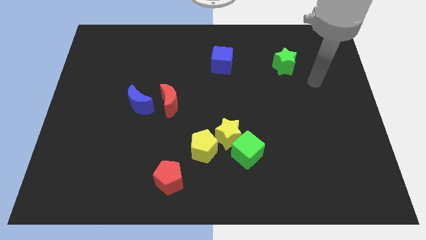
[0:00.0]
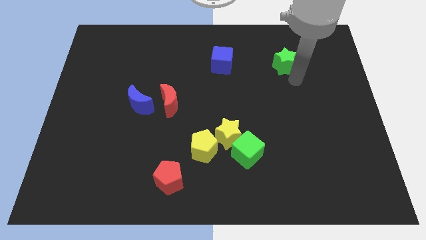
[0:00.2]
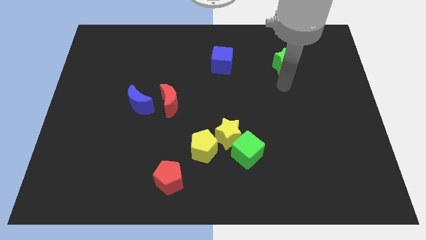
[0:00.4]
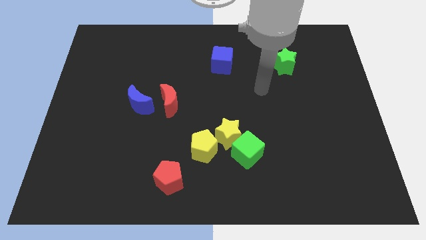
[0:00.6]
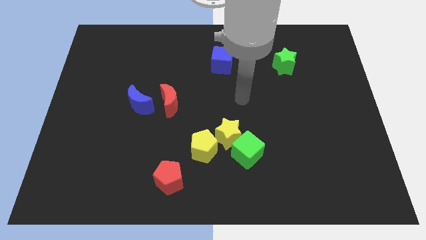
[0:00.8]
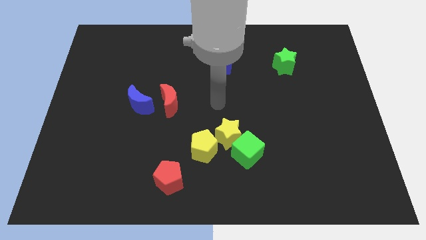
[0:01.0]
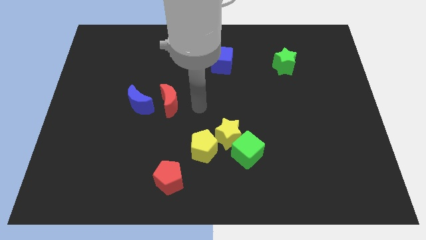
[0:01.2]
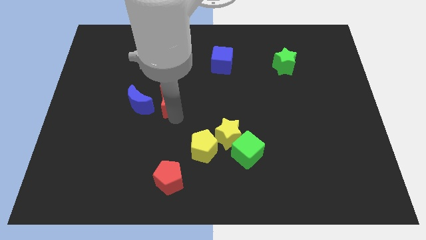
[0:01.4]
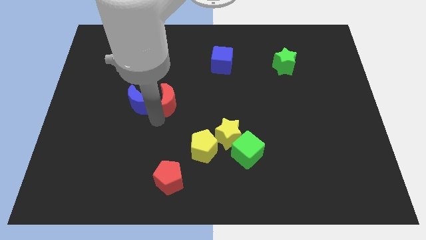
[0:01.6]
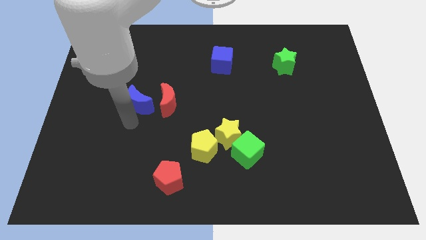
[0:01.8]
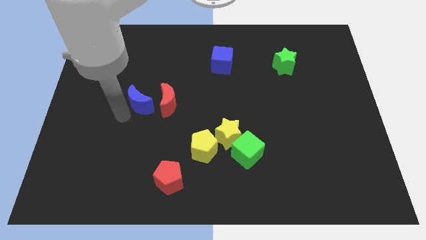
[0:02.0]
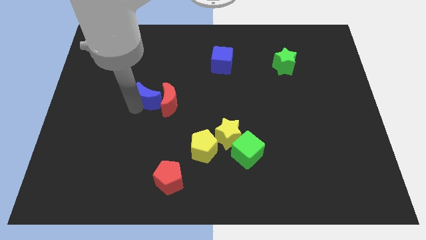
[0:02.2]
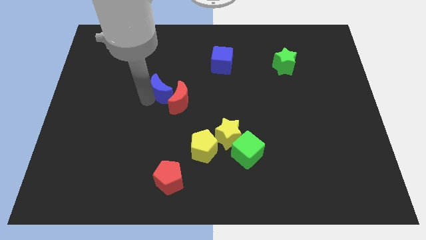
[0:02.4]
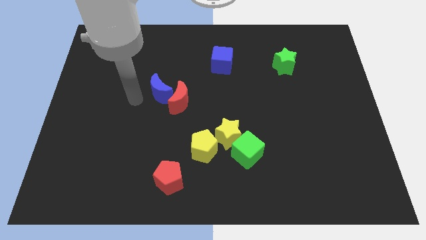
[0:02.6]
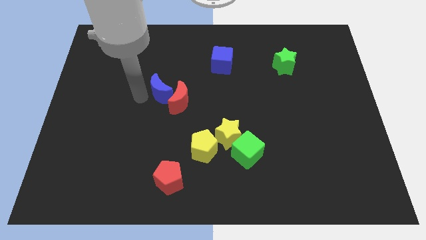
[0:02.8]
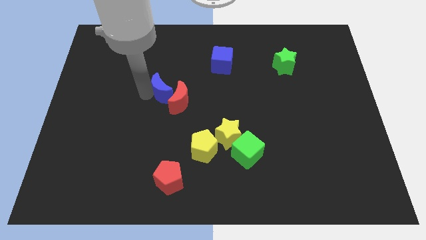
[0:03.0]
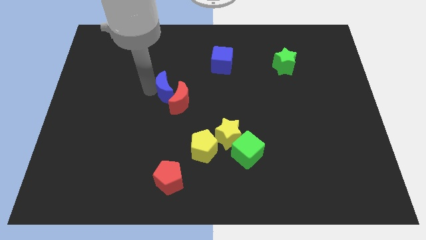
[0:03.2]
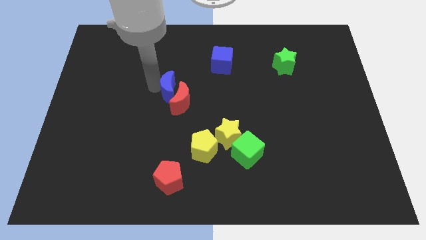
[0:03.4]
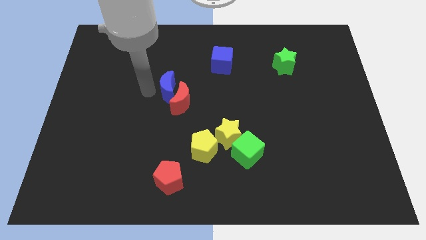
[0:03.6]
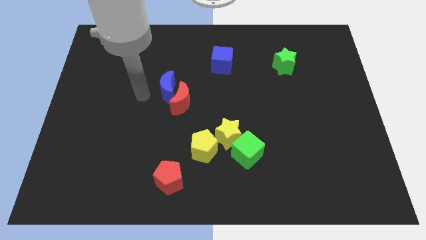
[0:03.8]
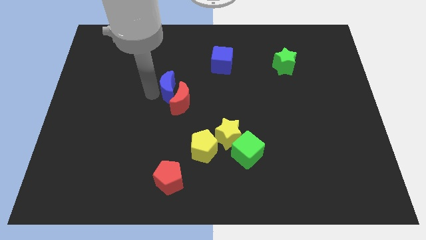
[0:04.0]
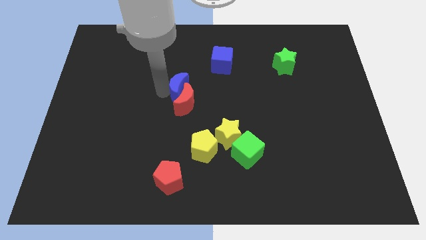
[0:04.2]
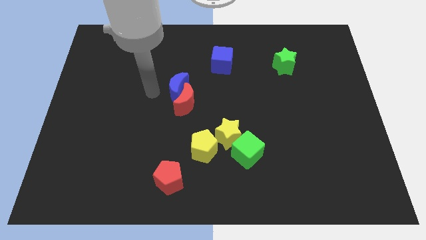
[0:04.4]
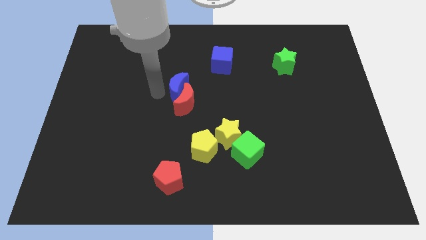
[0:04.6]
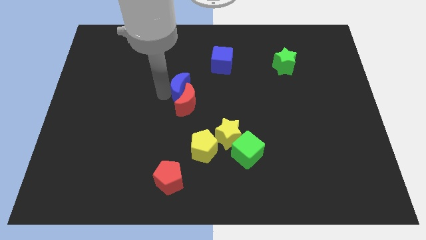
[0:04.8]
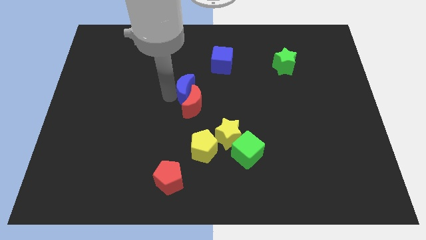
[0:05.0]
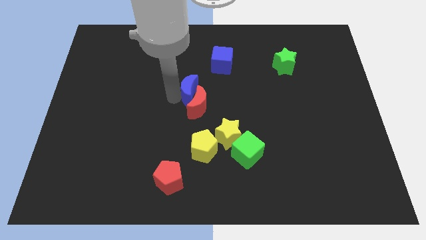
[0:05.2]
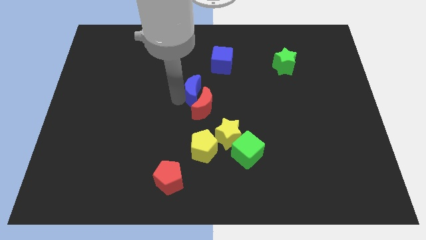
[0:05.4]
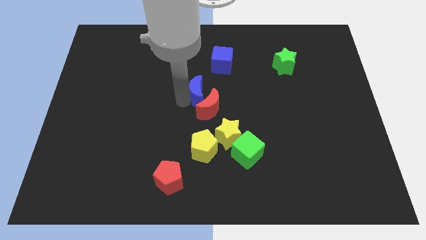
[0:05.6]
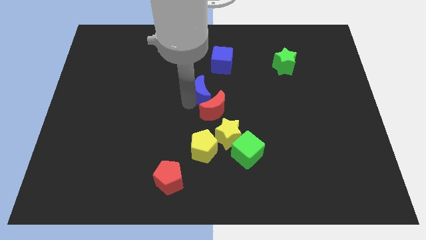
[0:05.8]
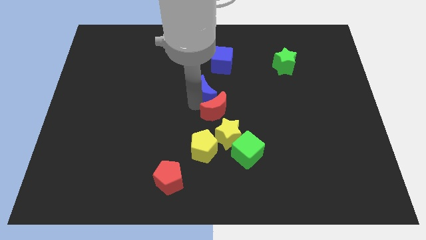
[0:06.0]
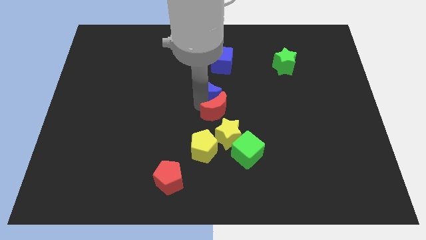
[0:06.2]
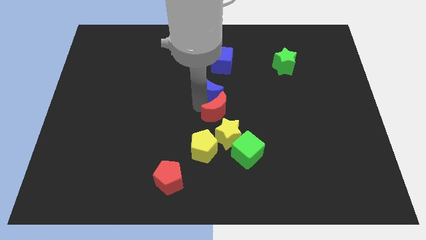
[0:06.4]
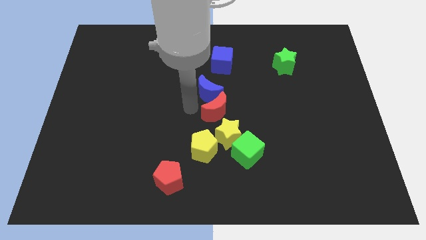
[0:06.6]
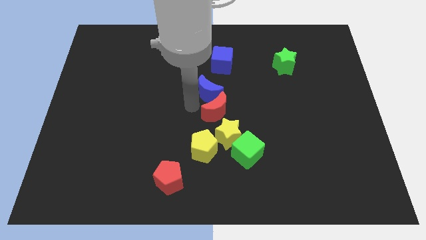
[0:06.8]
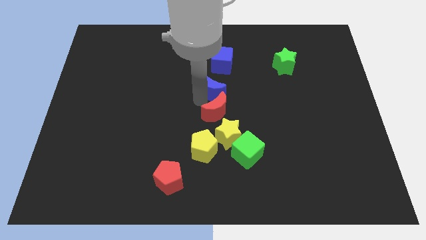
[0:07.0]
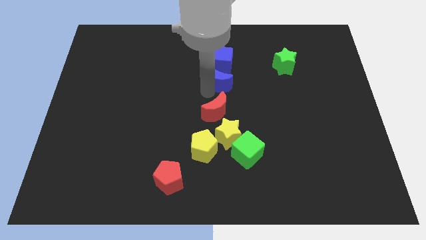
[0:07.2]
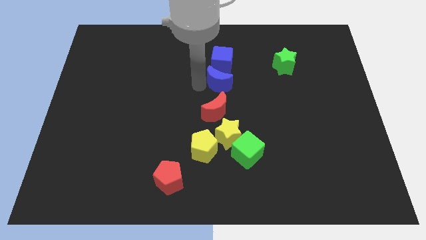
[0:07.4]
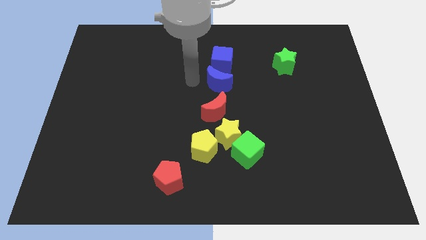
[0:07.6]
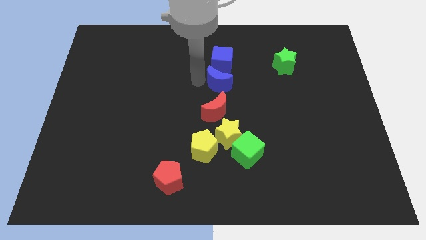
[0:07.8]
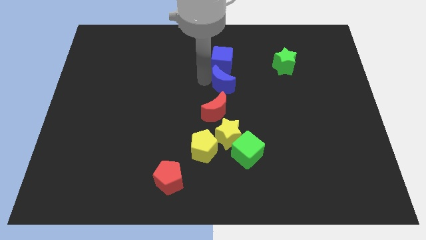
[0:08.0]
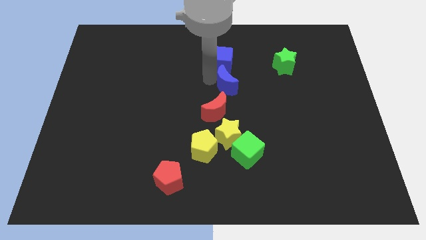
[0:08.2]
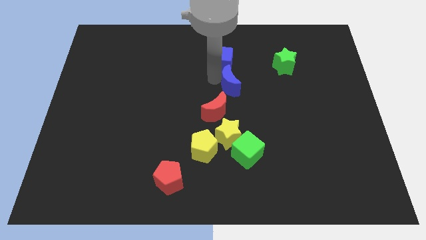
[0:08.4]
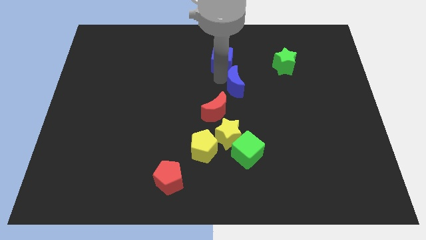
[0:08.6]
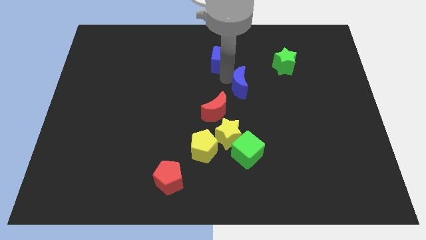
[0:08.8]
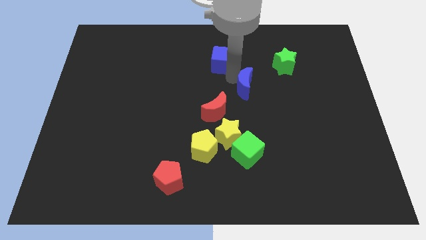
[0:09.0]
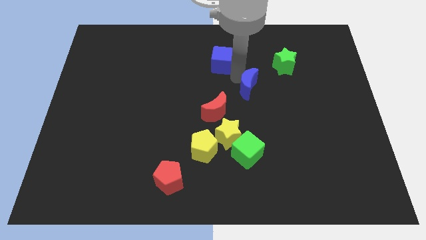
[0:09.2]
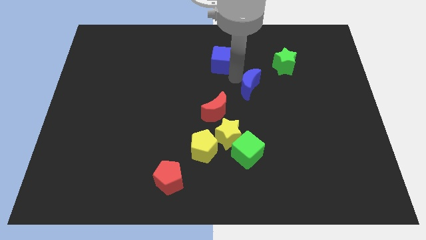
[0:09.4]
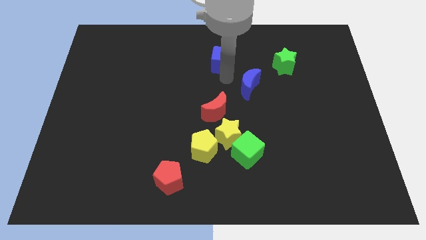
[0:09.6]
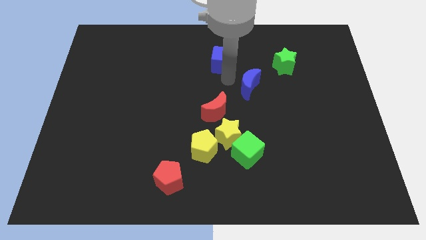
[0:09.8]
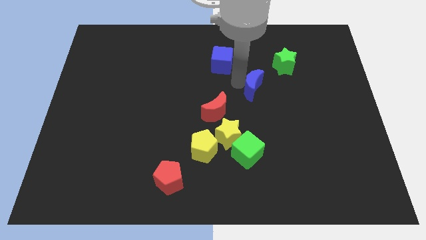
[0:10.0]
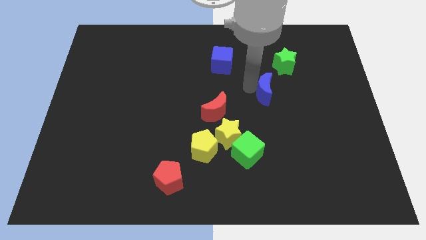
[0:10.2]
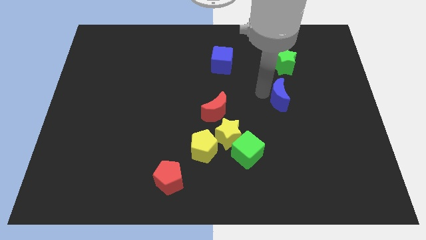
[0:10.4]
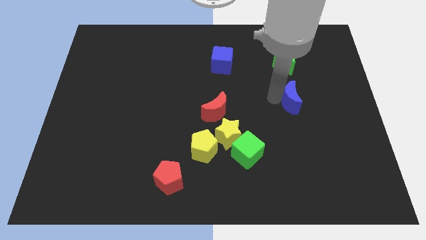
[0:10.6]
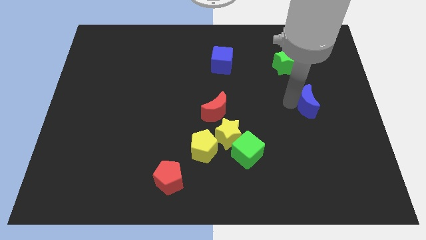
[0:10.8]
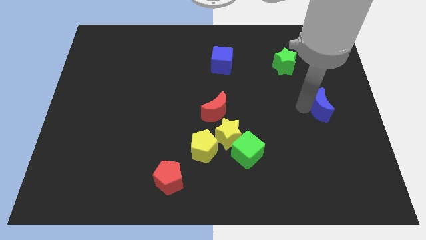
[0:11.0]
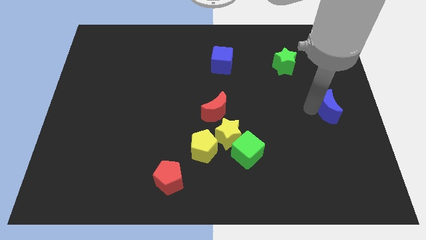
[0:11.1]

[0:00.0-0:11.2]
slide the blue moon to the right side
